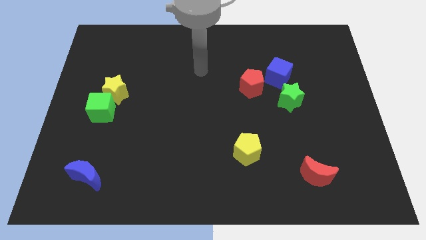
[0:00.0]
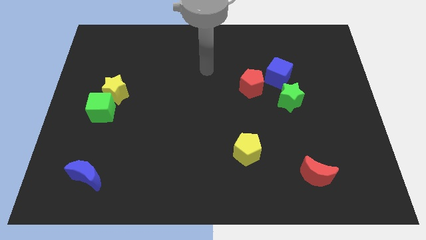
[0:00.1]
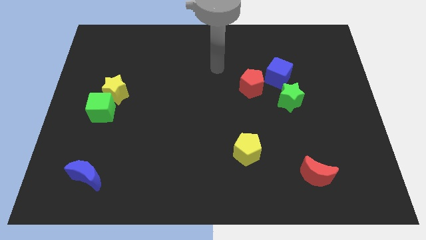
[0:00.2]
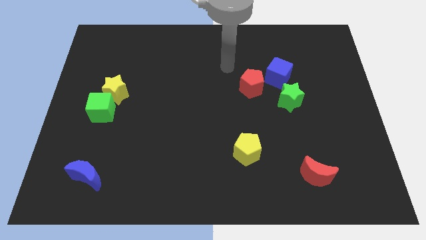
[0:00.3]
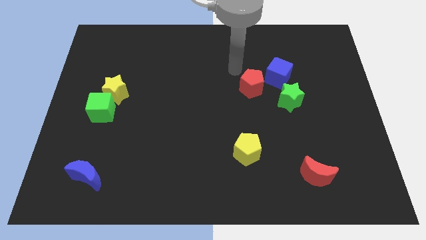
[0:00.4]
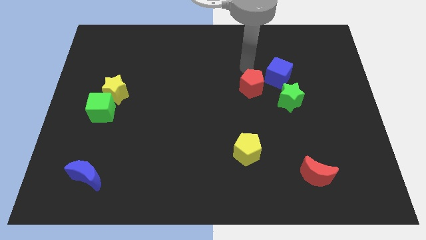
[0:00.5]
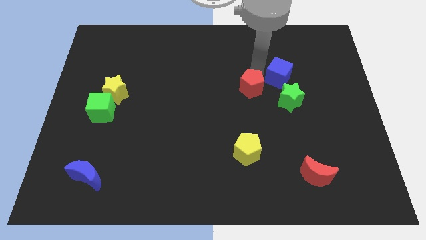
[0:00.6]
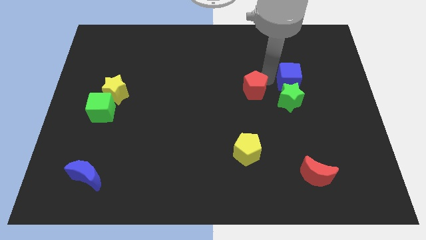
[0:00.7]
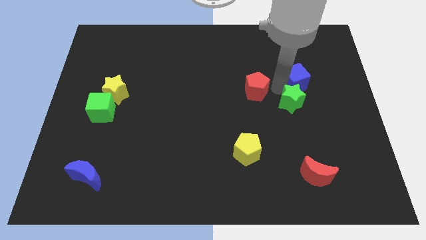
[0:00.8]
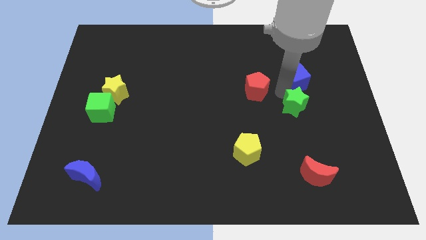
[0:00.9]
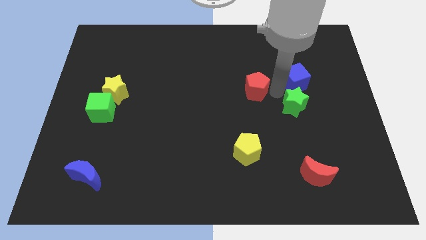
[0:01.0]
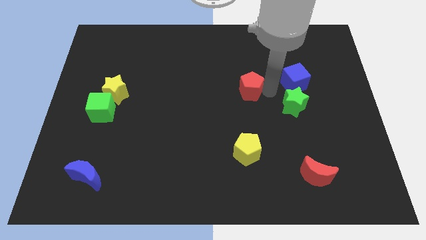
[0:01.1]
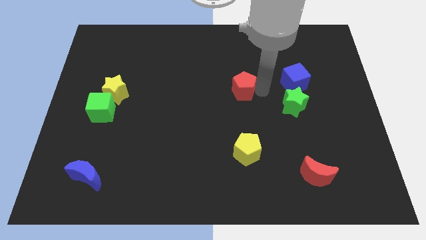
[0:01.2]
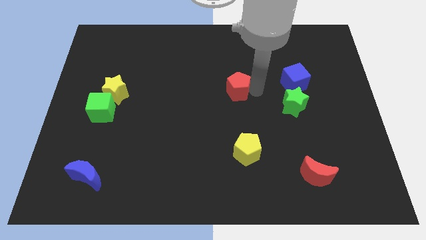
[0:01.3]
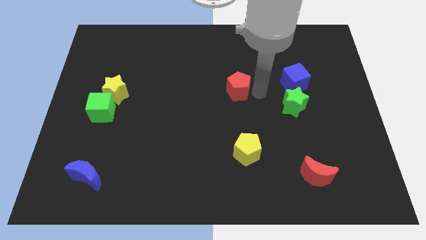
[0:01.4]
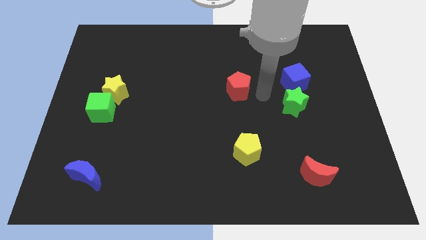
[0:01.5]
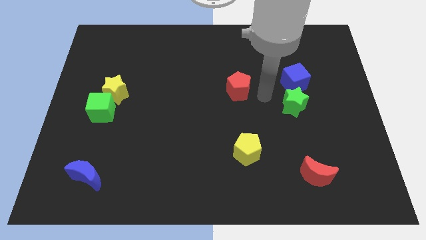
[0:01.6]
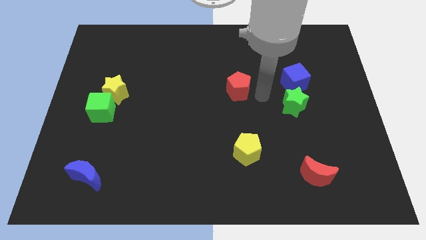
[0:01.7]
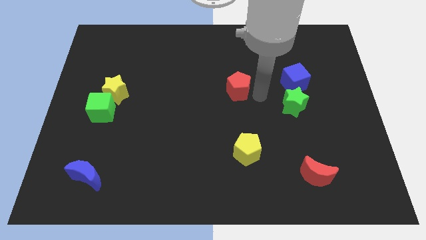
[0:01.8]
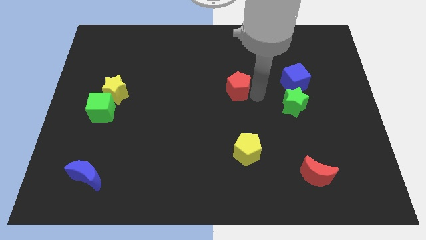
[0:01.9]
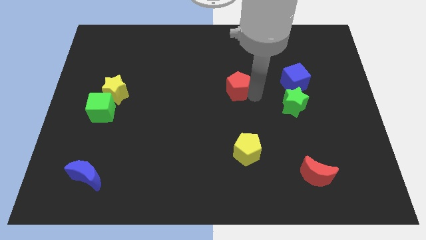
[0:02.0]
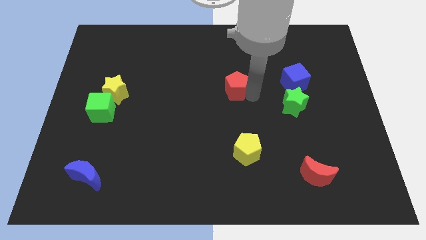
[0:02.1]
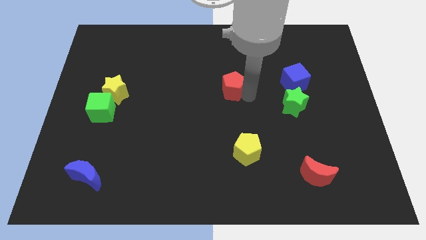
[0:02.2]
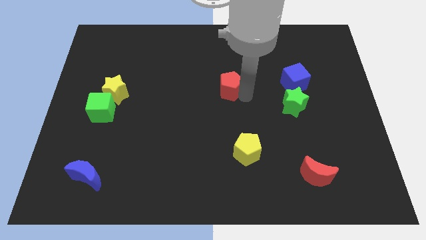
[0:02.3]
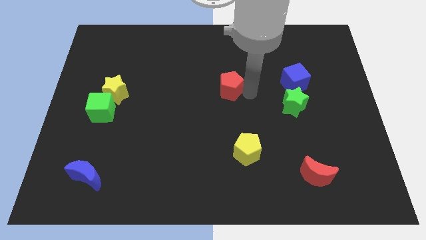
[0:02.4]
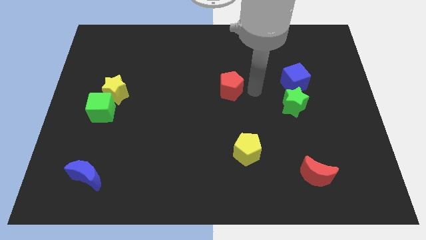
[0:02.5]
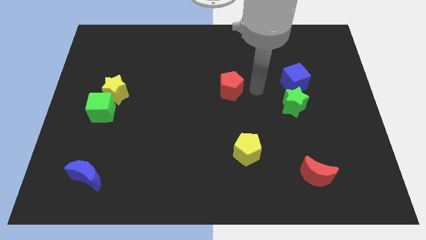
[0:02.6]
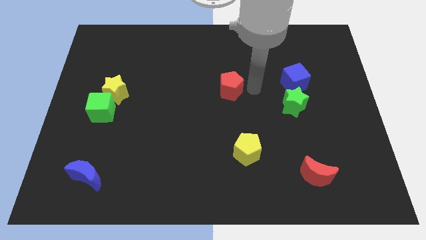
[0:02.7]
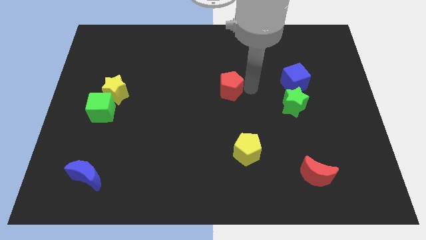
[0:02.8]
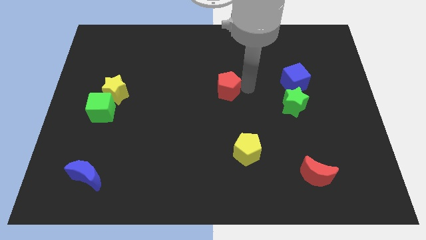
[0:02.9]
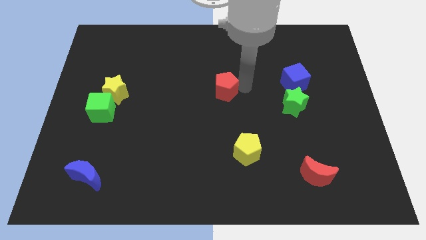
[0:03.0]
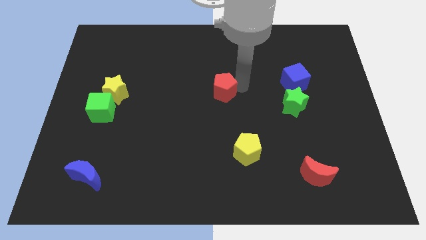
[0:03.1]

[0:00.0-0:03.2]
move the red pentagon somewhat to the left

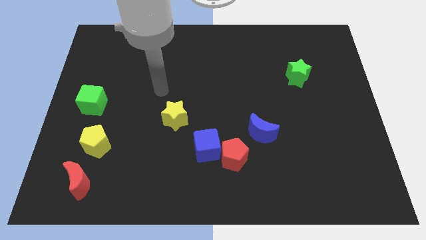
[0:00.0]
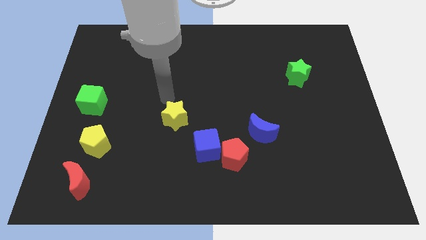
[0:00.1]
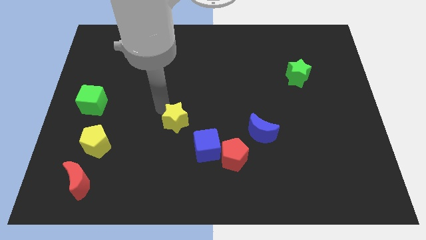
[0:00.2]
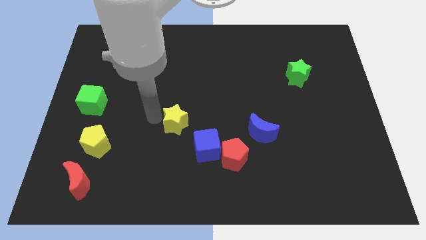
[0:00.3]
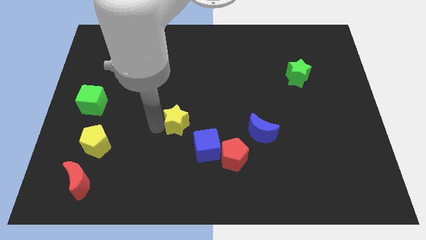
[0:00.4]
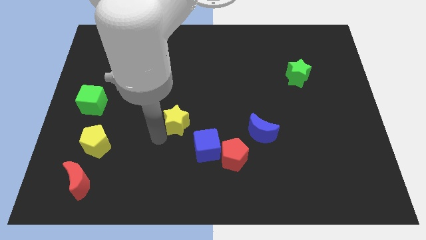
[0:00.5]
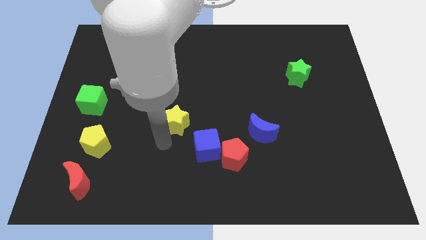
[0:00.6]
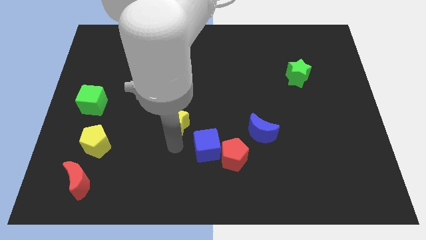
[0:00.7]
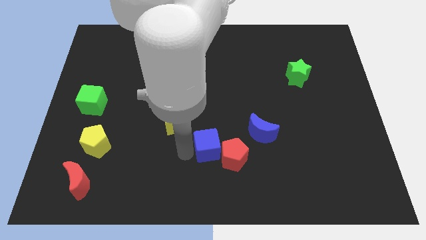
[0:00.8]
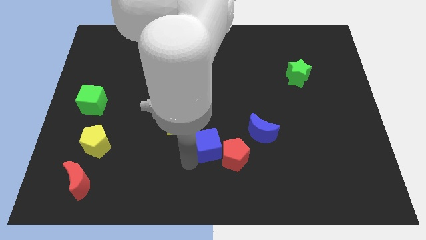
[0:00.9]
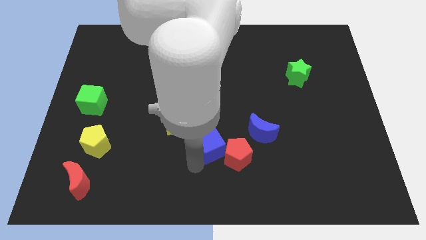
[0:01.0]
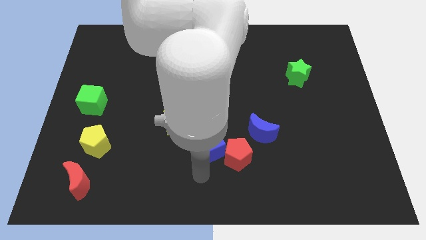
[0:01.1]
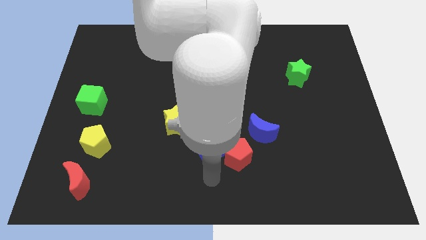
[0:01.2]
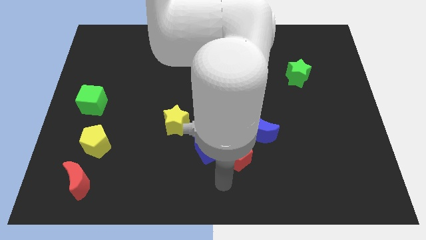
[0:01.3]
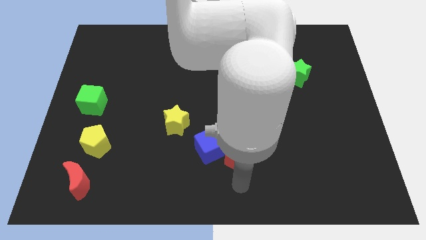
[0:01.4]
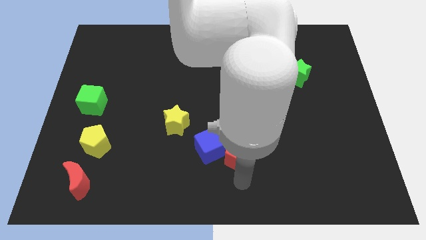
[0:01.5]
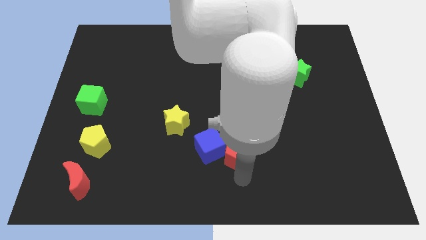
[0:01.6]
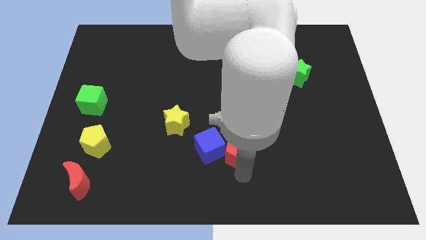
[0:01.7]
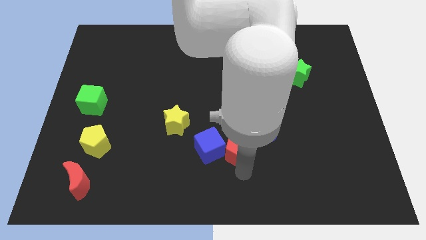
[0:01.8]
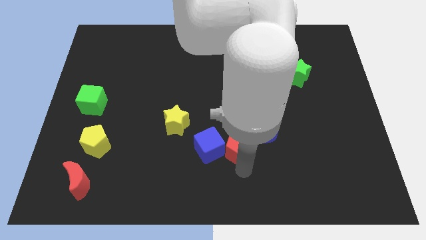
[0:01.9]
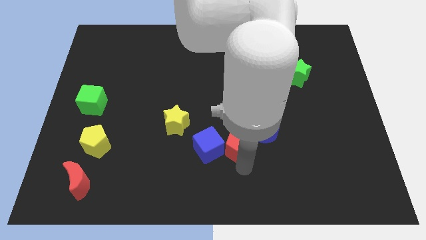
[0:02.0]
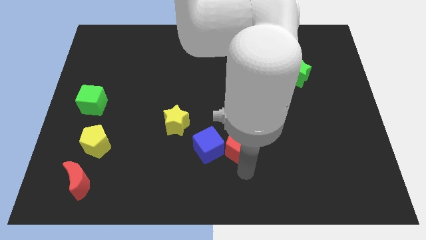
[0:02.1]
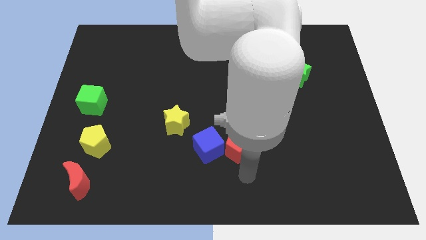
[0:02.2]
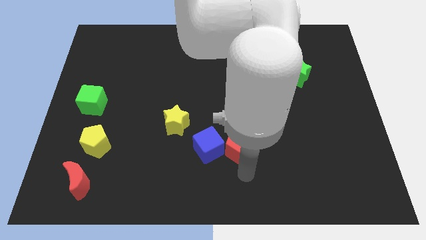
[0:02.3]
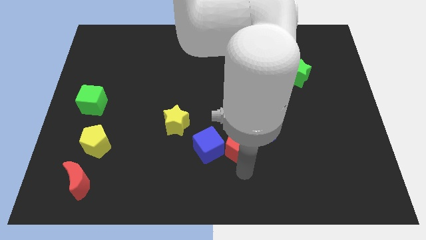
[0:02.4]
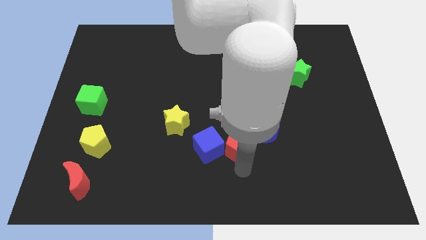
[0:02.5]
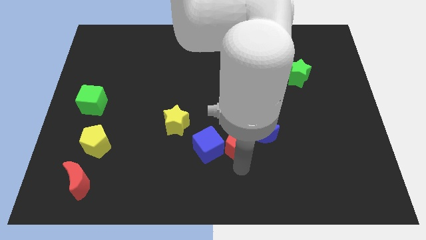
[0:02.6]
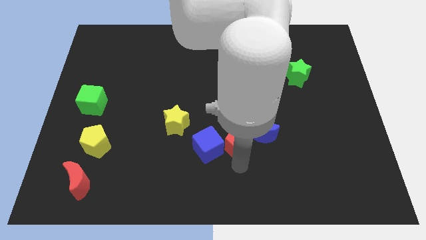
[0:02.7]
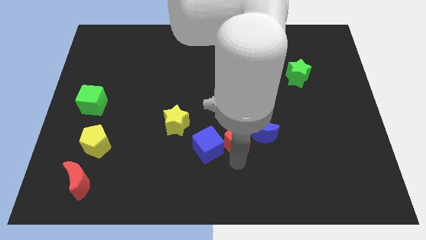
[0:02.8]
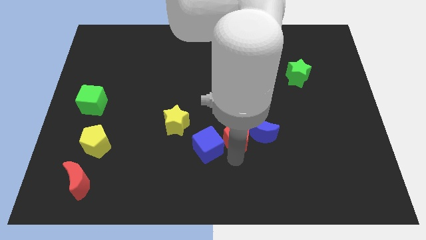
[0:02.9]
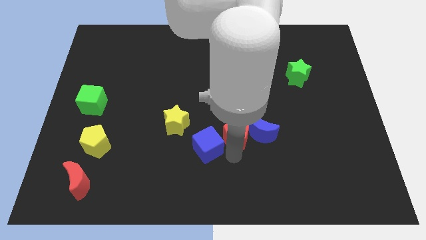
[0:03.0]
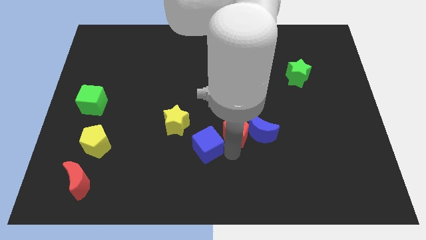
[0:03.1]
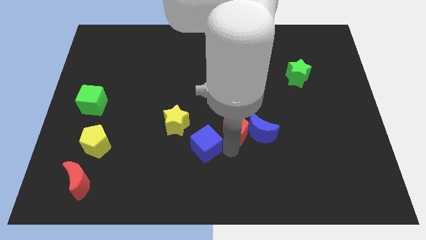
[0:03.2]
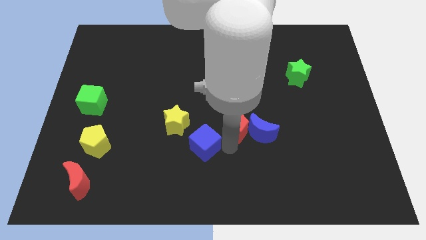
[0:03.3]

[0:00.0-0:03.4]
slide the red pentagon upwards somewhat

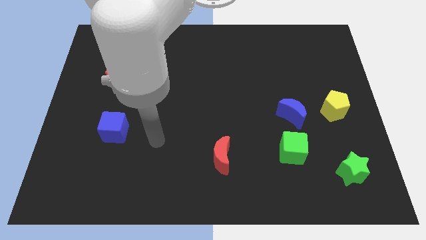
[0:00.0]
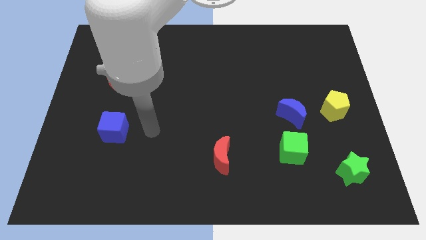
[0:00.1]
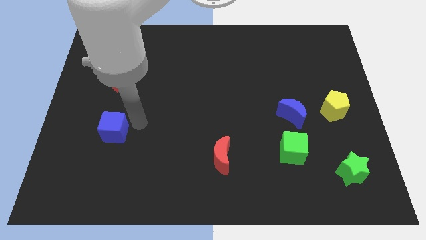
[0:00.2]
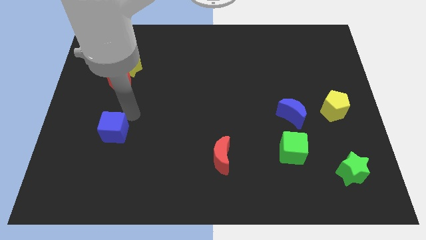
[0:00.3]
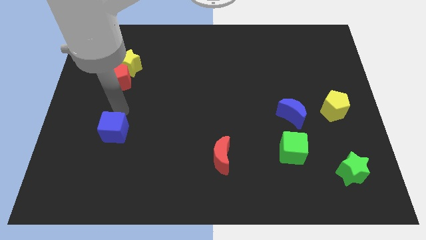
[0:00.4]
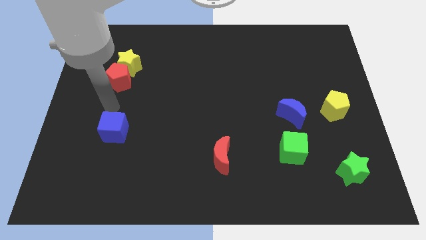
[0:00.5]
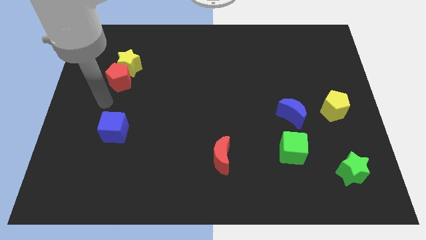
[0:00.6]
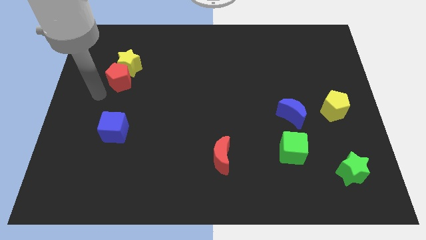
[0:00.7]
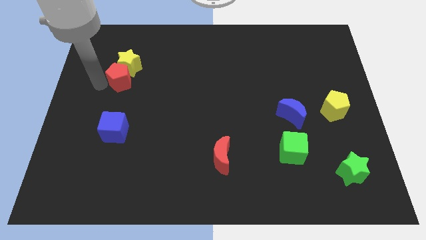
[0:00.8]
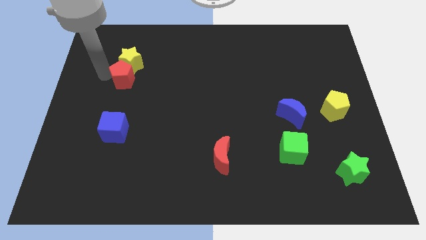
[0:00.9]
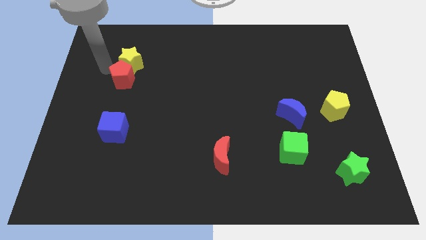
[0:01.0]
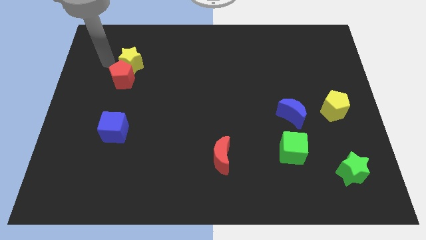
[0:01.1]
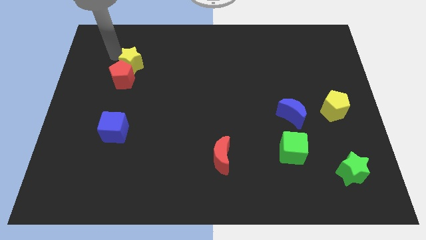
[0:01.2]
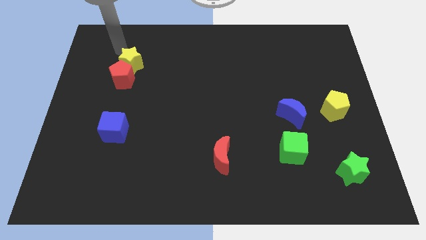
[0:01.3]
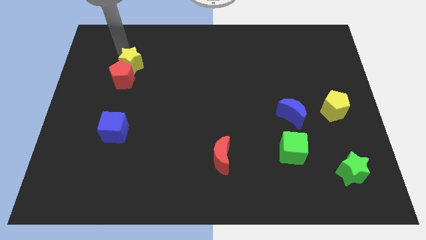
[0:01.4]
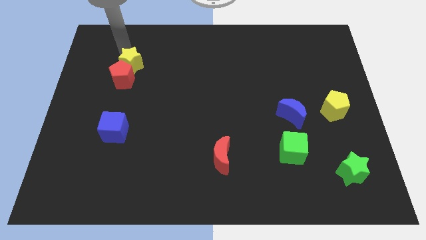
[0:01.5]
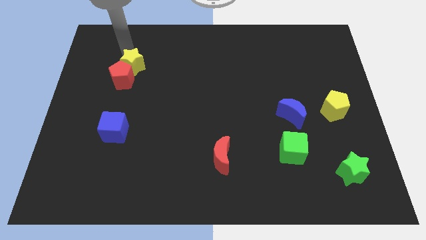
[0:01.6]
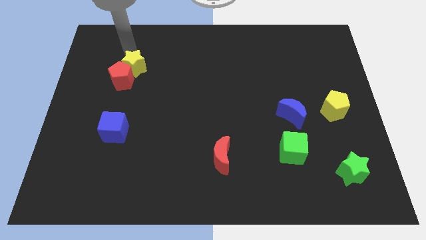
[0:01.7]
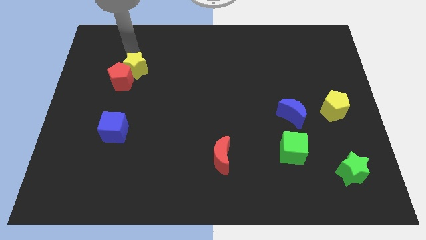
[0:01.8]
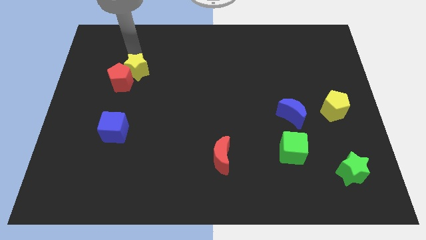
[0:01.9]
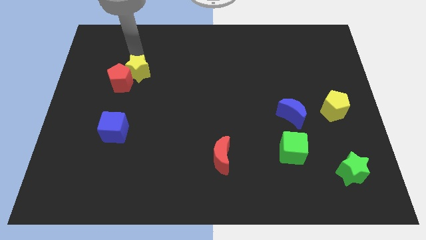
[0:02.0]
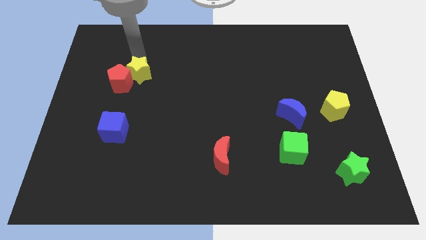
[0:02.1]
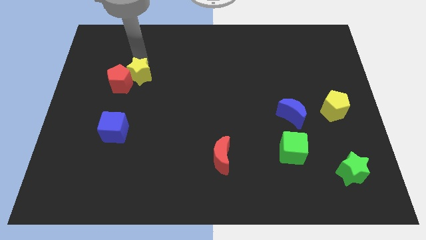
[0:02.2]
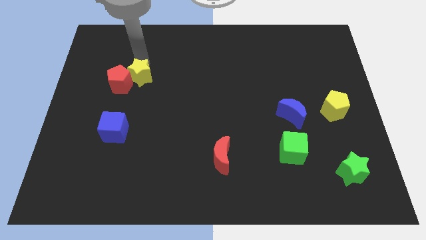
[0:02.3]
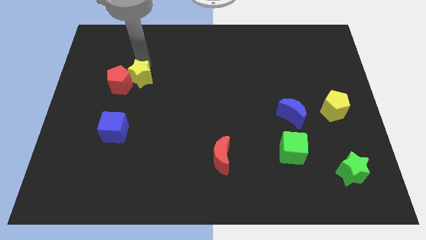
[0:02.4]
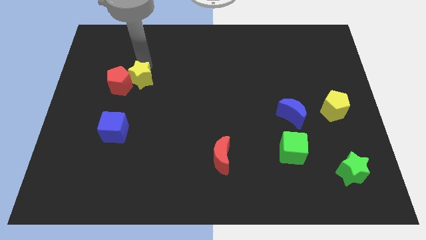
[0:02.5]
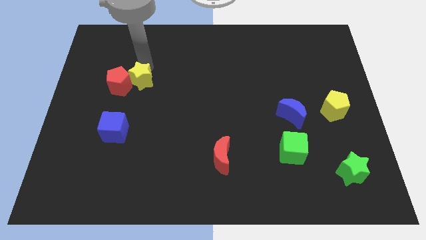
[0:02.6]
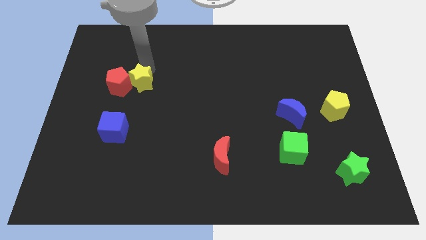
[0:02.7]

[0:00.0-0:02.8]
push the yellow star down and to the right diagonally a little bit
